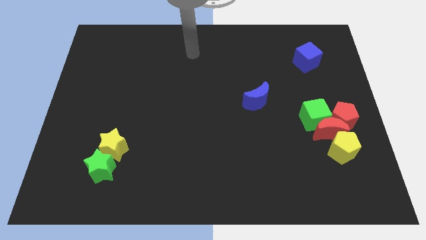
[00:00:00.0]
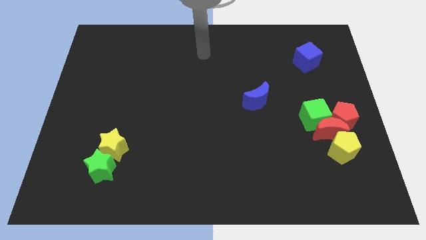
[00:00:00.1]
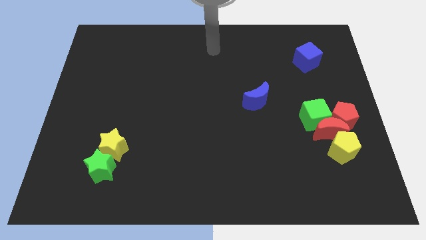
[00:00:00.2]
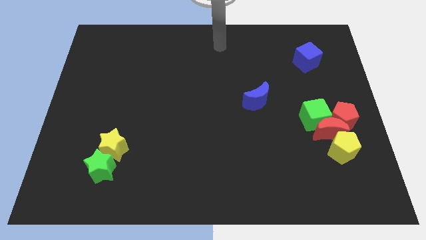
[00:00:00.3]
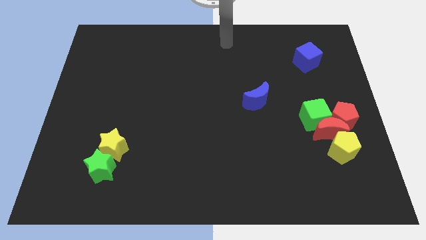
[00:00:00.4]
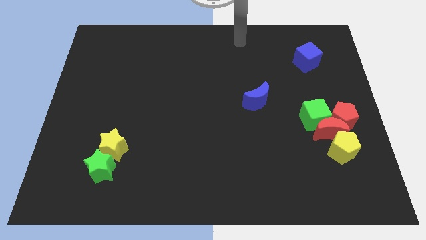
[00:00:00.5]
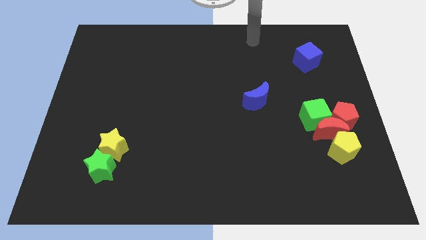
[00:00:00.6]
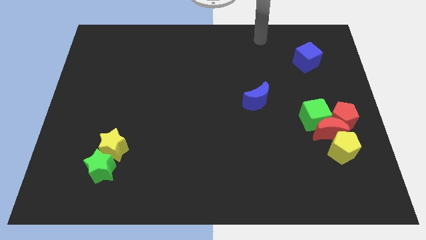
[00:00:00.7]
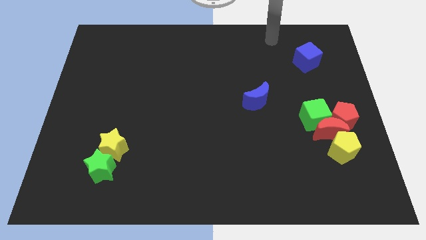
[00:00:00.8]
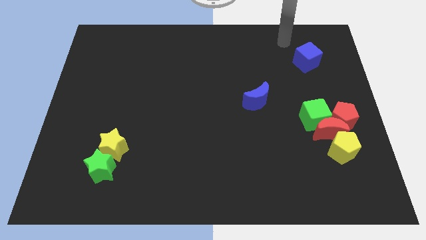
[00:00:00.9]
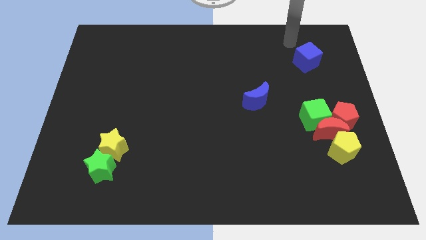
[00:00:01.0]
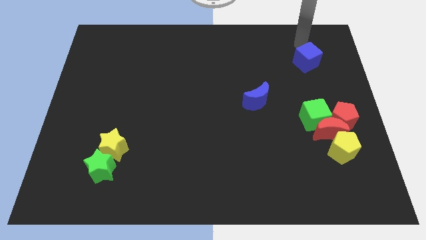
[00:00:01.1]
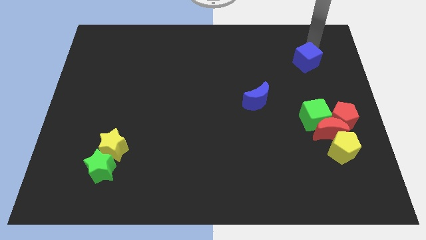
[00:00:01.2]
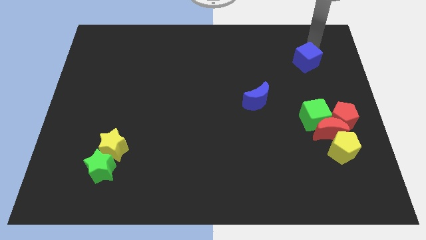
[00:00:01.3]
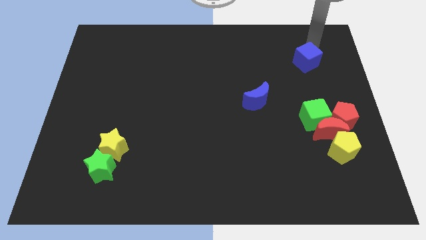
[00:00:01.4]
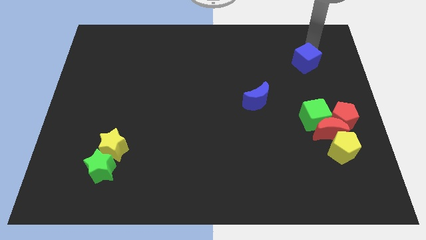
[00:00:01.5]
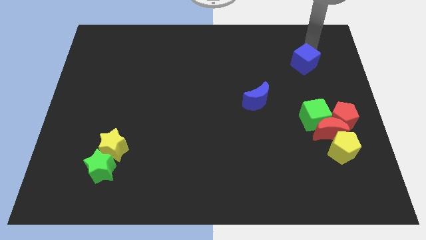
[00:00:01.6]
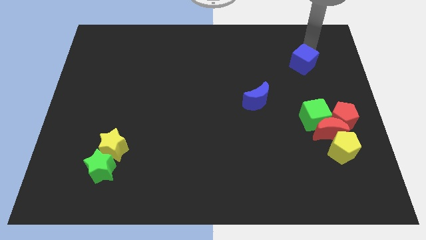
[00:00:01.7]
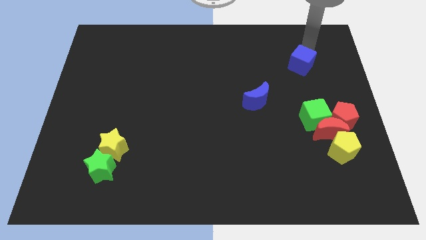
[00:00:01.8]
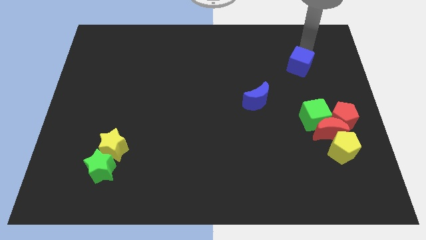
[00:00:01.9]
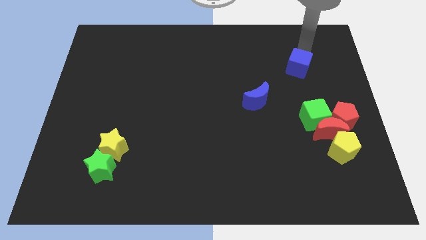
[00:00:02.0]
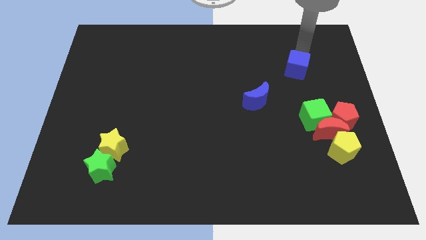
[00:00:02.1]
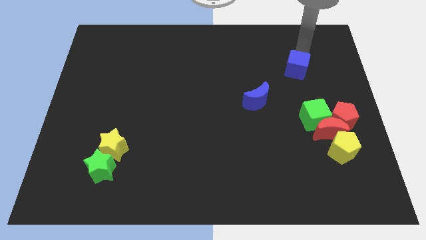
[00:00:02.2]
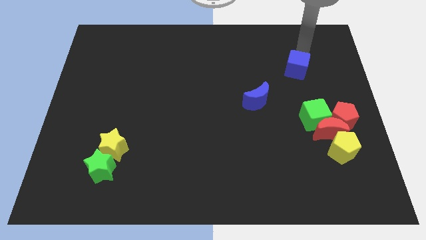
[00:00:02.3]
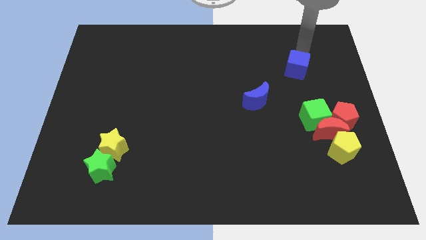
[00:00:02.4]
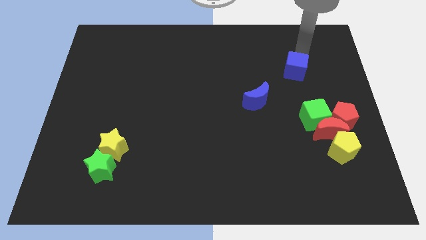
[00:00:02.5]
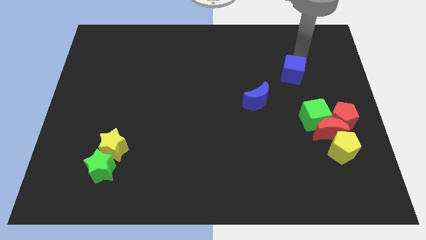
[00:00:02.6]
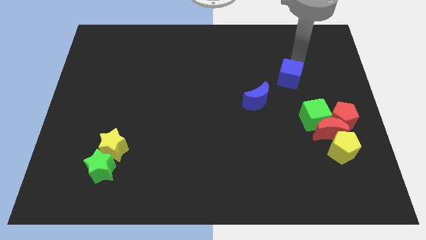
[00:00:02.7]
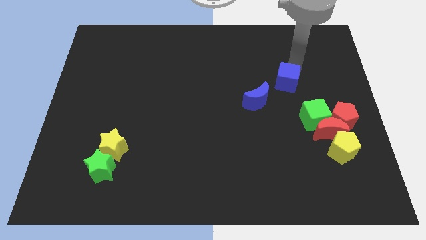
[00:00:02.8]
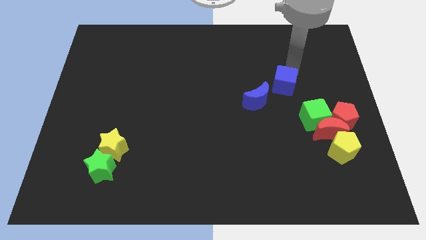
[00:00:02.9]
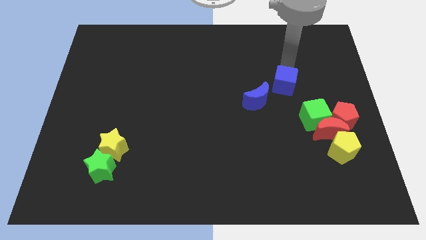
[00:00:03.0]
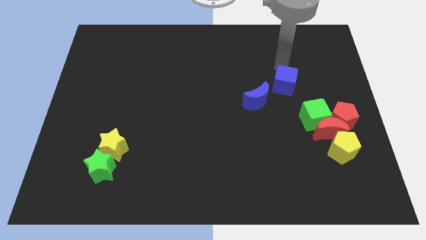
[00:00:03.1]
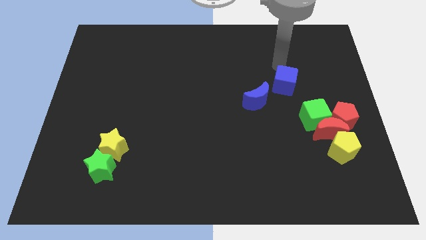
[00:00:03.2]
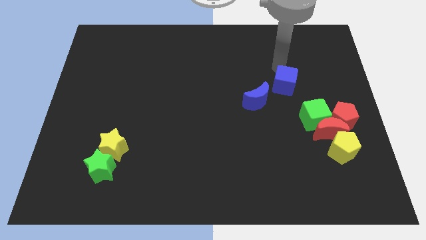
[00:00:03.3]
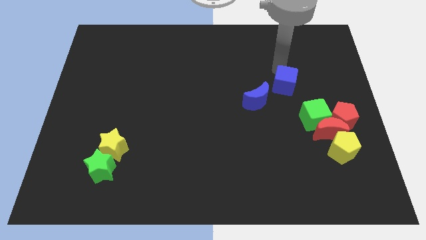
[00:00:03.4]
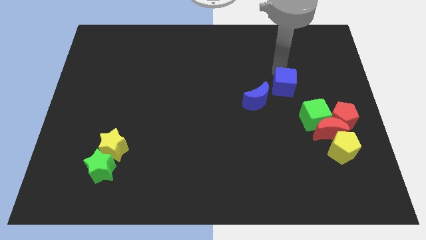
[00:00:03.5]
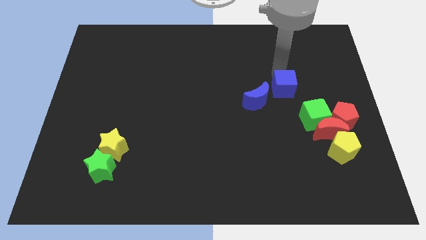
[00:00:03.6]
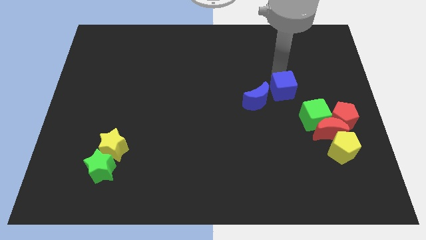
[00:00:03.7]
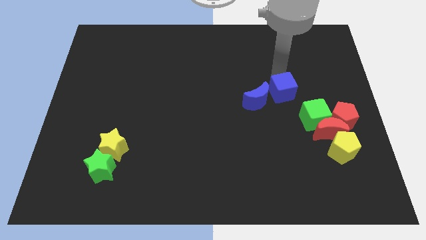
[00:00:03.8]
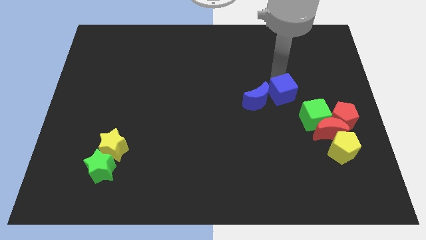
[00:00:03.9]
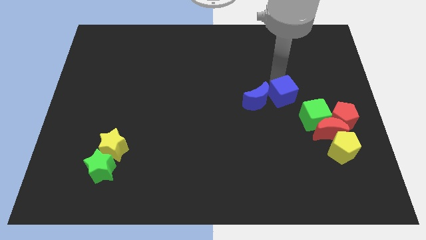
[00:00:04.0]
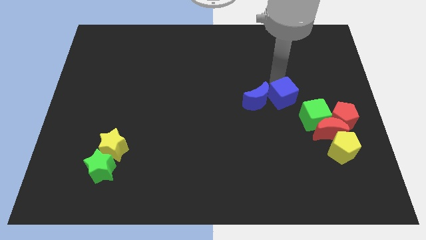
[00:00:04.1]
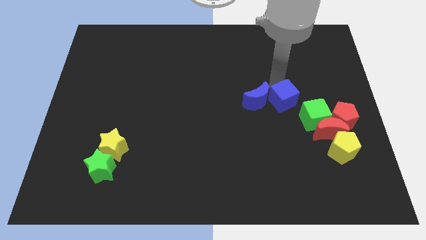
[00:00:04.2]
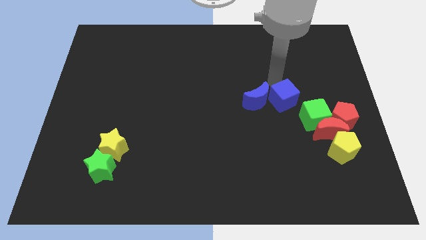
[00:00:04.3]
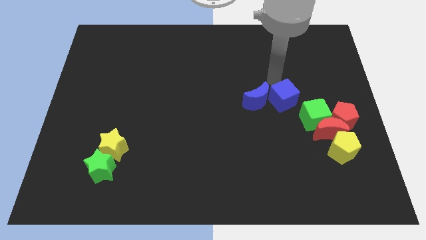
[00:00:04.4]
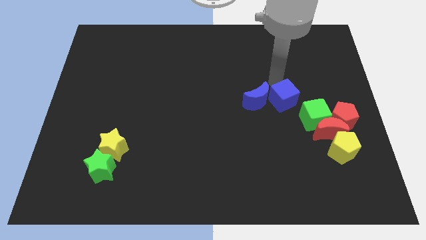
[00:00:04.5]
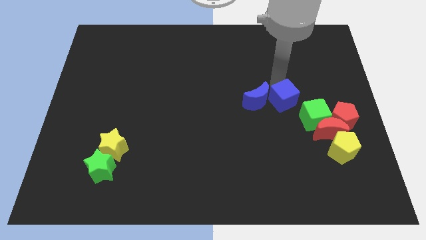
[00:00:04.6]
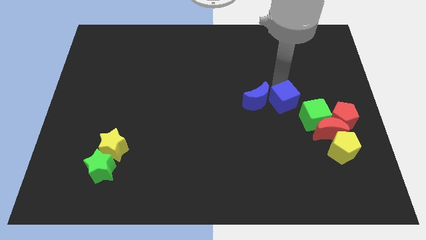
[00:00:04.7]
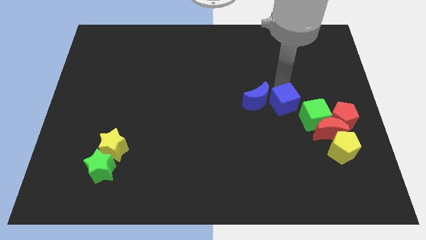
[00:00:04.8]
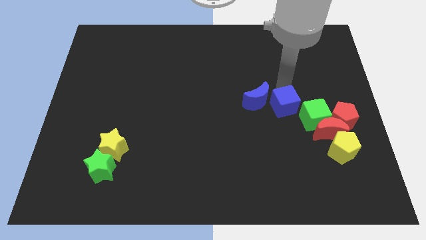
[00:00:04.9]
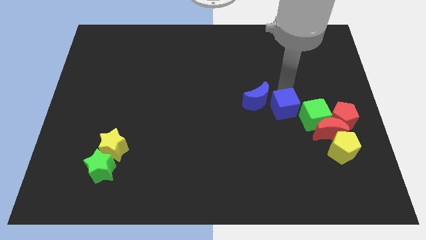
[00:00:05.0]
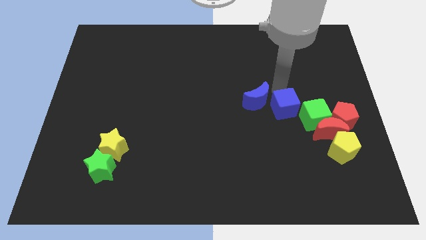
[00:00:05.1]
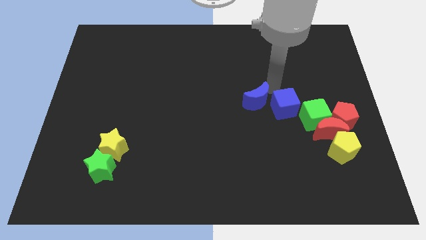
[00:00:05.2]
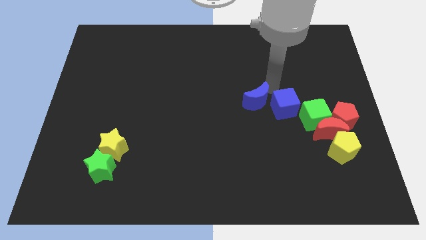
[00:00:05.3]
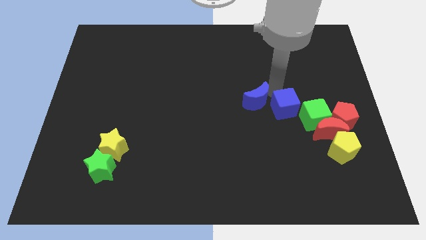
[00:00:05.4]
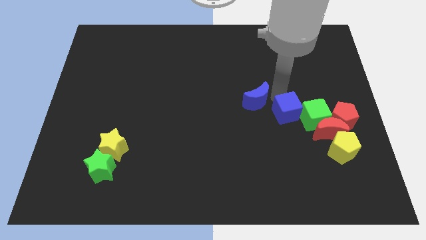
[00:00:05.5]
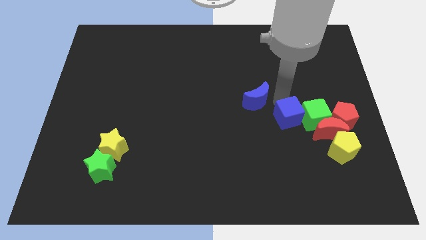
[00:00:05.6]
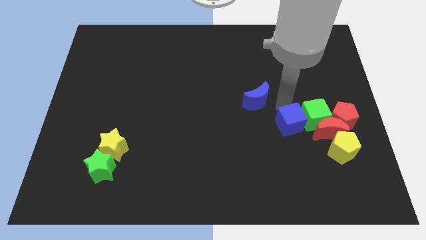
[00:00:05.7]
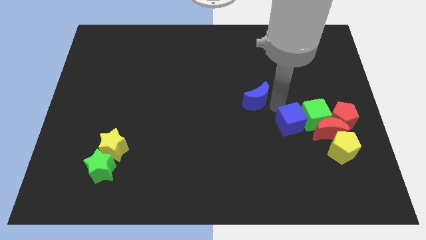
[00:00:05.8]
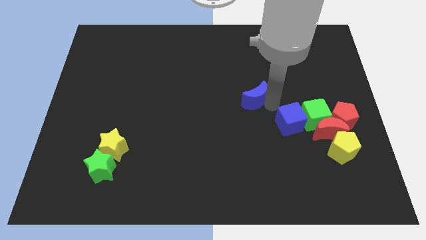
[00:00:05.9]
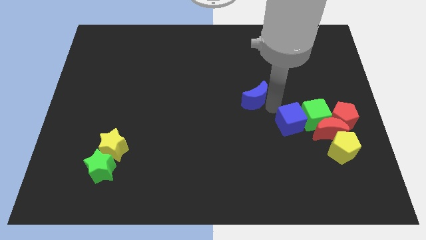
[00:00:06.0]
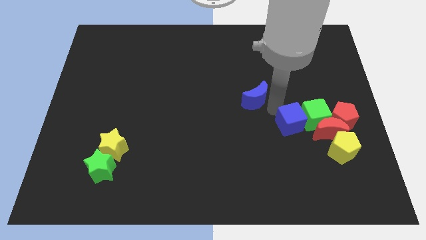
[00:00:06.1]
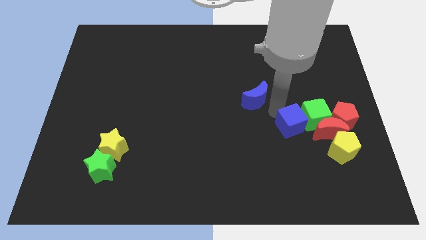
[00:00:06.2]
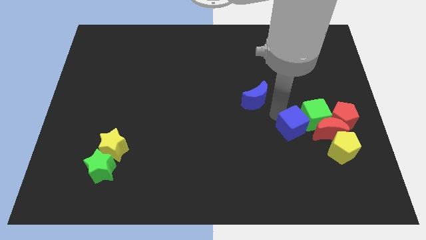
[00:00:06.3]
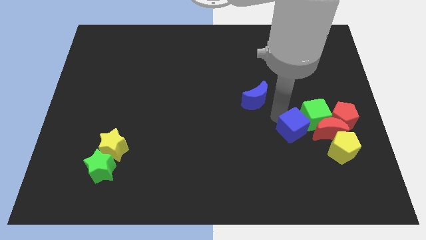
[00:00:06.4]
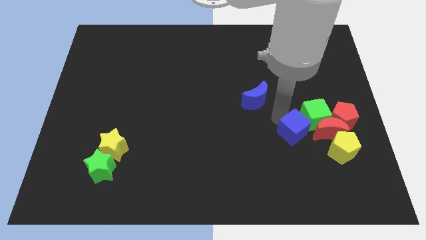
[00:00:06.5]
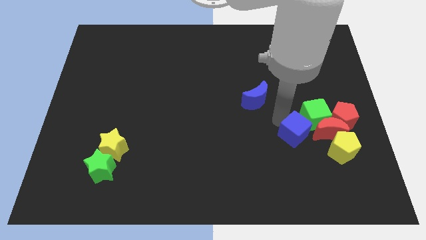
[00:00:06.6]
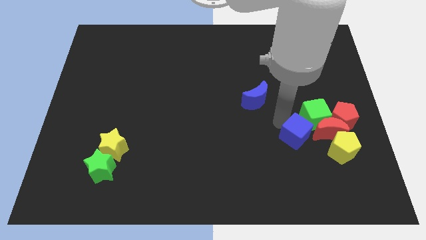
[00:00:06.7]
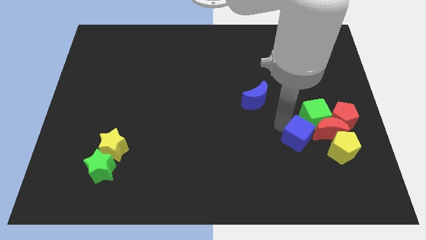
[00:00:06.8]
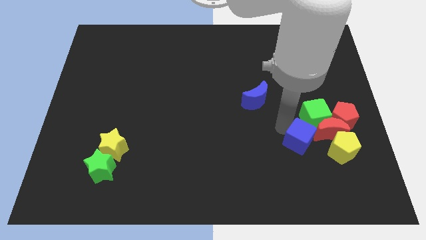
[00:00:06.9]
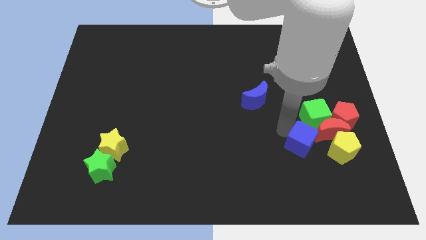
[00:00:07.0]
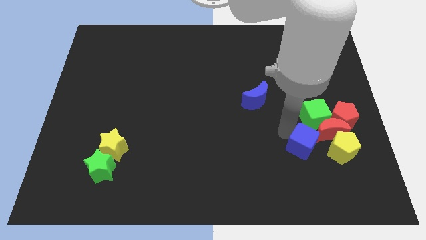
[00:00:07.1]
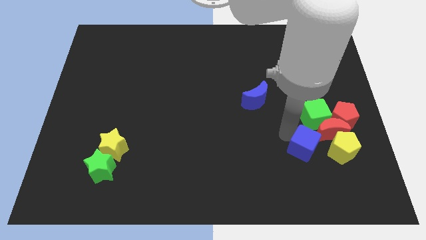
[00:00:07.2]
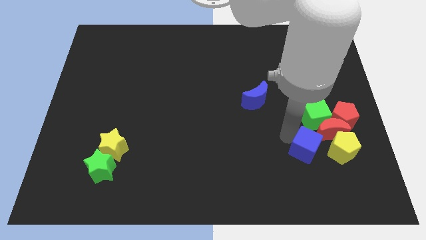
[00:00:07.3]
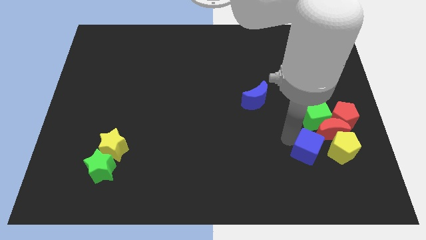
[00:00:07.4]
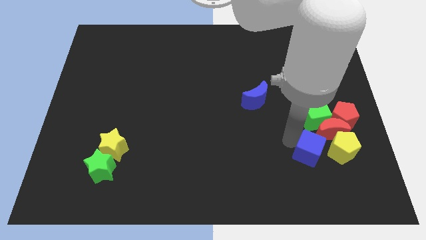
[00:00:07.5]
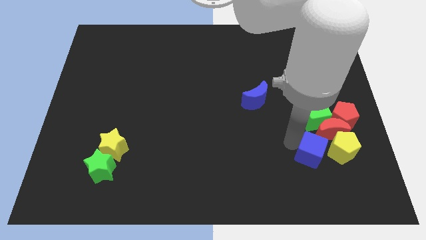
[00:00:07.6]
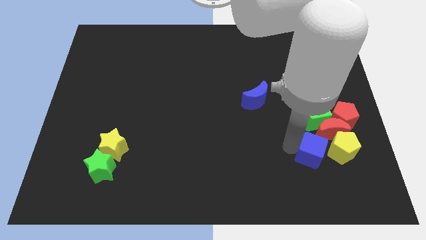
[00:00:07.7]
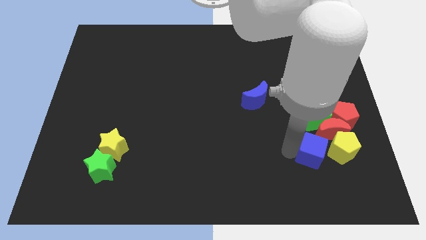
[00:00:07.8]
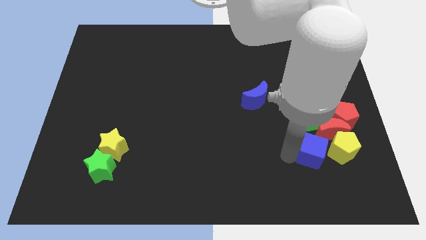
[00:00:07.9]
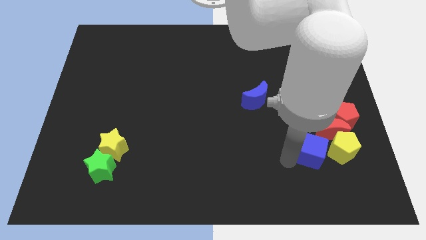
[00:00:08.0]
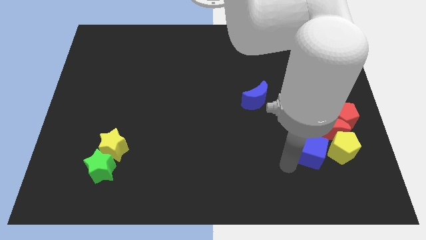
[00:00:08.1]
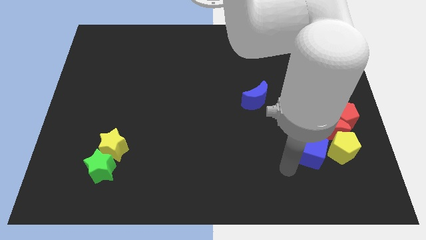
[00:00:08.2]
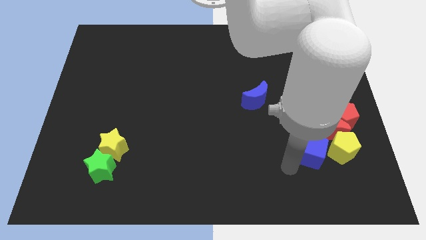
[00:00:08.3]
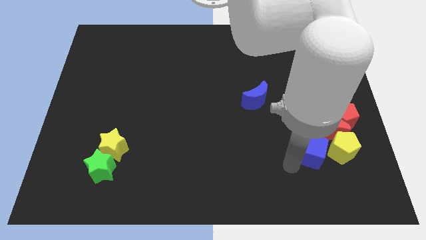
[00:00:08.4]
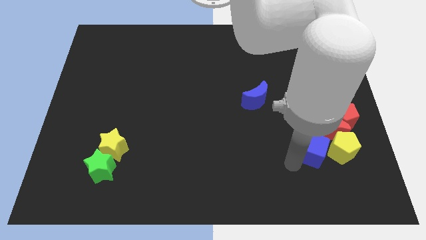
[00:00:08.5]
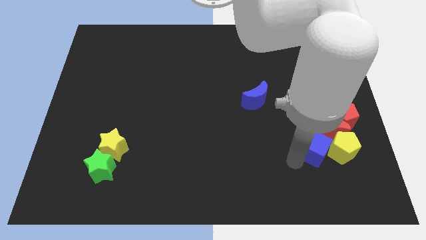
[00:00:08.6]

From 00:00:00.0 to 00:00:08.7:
push the blue cube towards the yellow pentagon
